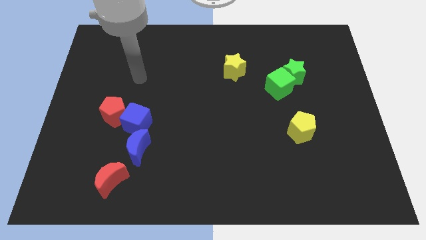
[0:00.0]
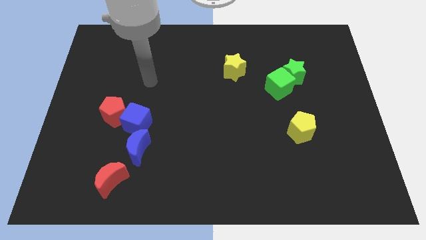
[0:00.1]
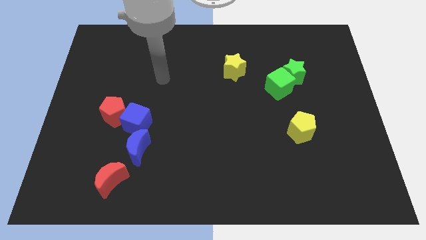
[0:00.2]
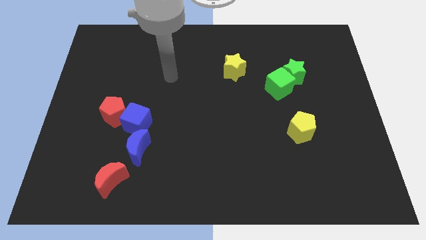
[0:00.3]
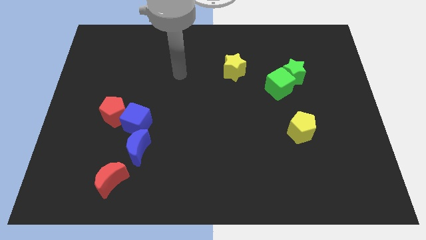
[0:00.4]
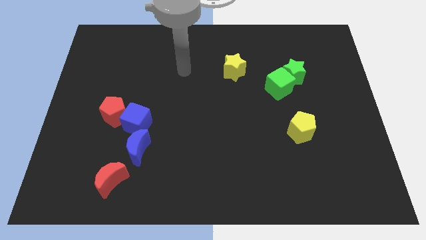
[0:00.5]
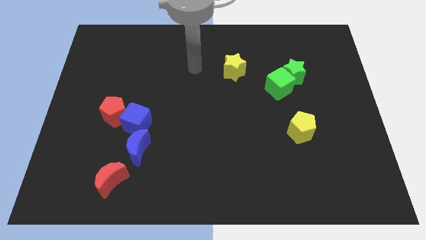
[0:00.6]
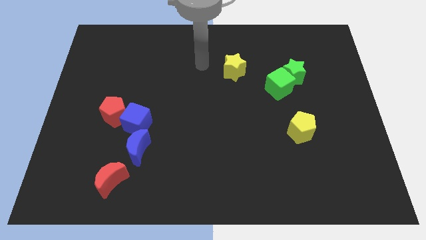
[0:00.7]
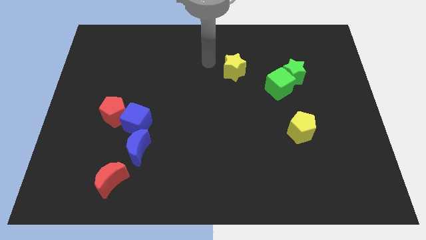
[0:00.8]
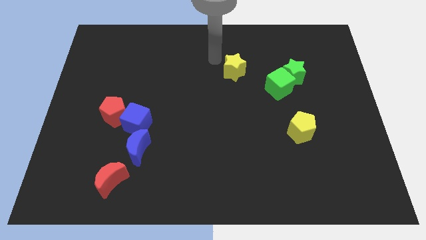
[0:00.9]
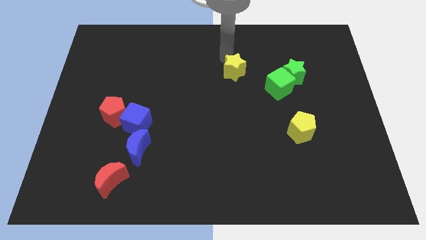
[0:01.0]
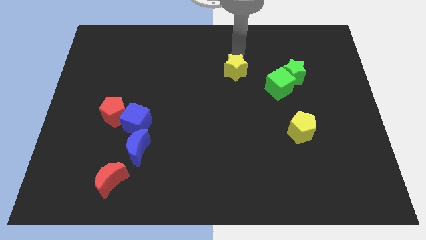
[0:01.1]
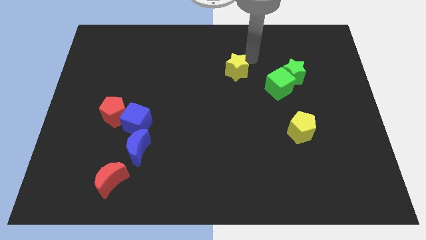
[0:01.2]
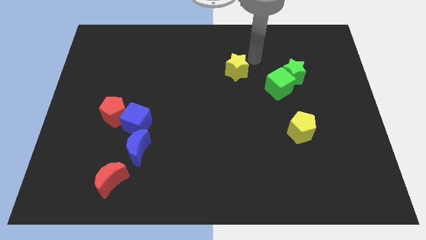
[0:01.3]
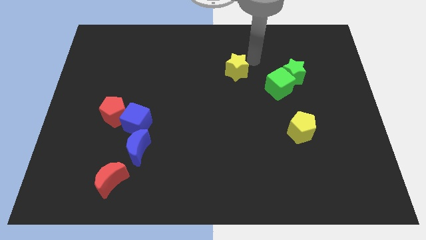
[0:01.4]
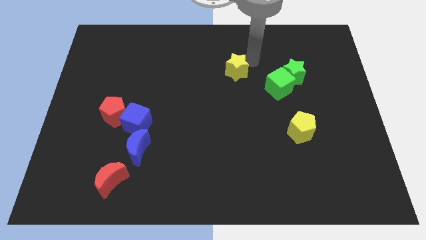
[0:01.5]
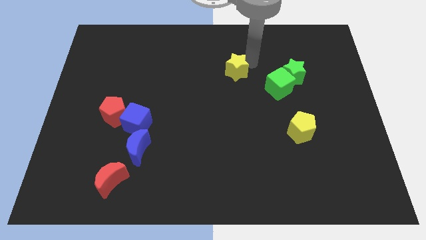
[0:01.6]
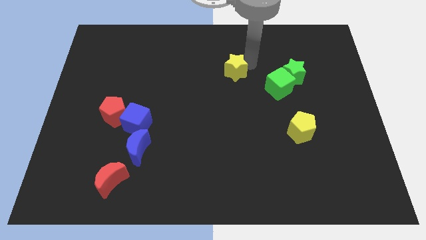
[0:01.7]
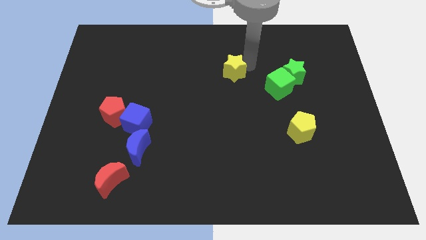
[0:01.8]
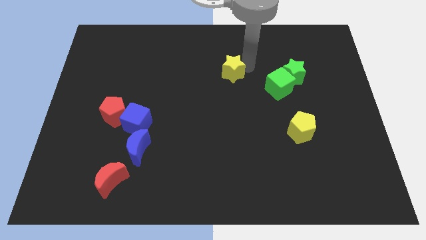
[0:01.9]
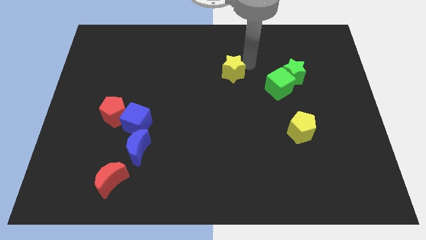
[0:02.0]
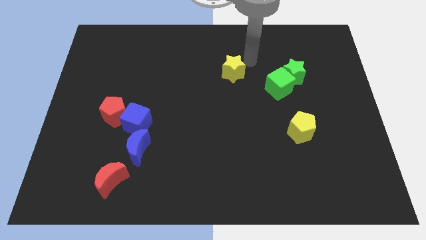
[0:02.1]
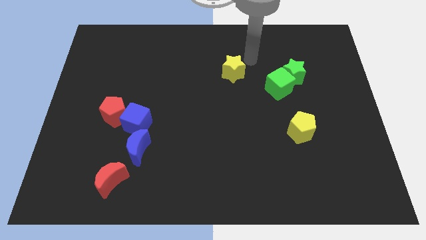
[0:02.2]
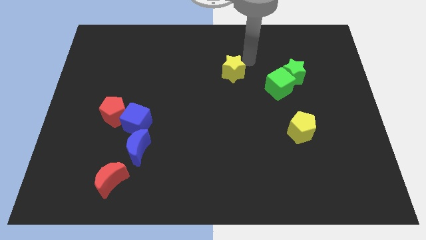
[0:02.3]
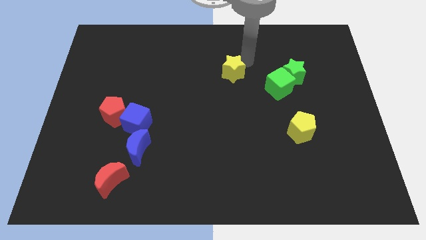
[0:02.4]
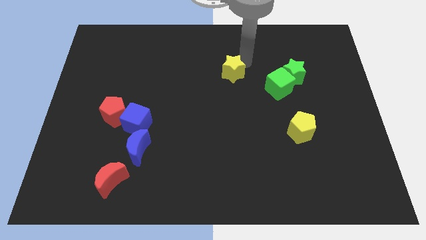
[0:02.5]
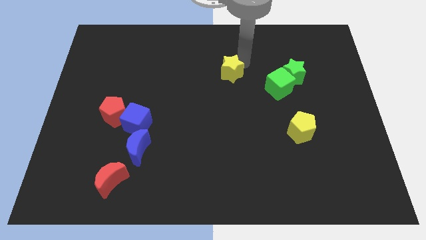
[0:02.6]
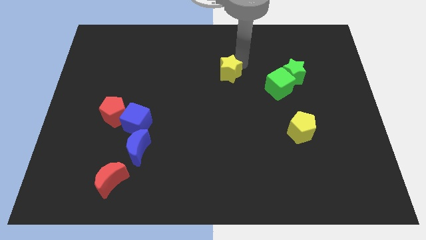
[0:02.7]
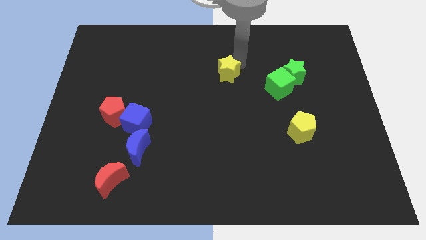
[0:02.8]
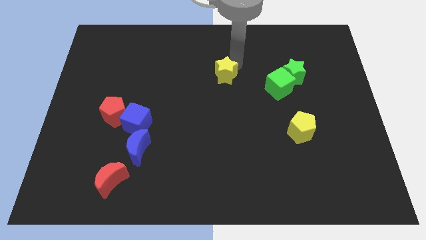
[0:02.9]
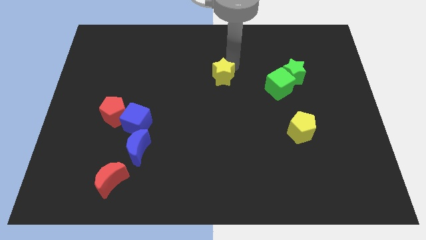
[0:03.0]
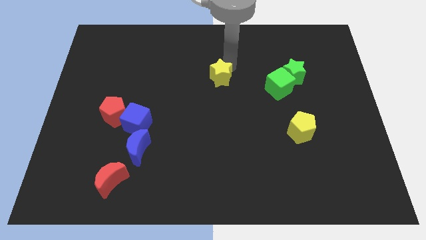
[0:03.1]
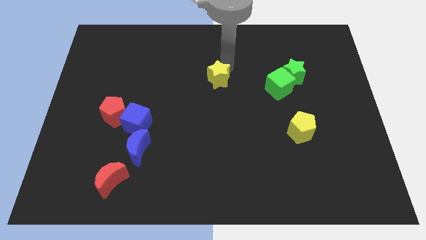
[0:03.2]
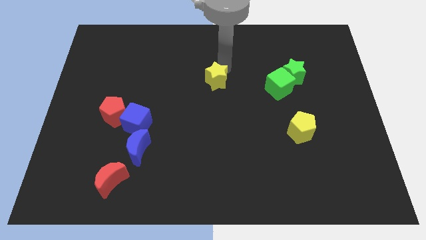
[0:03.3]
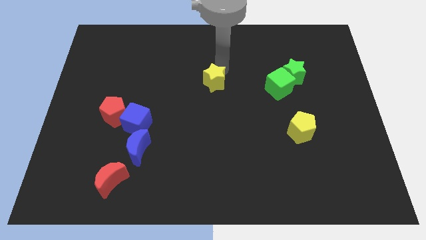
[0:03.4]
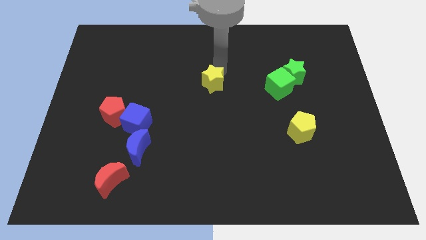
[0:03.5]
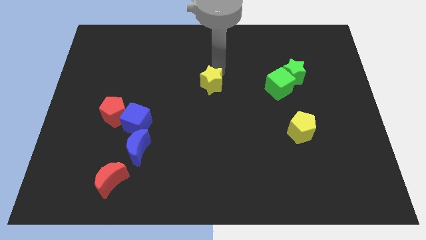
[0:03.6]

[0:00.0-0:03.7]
slide the yellow star down and to the left slightly

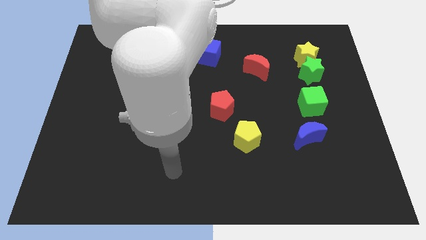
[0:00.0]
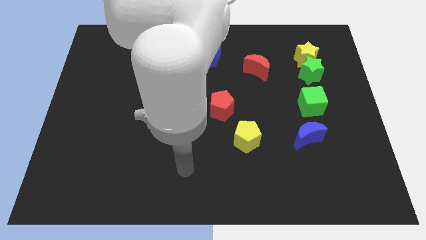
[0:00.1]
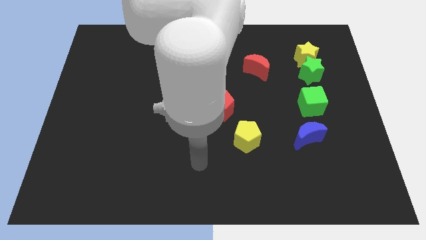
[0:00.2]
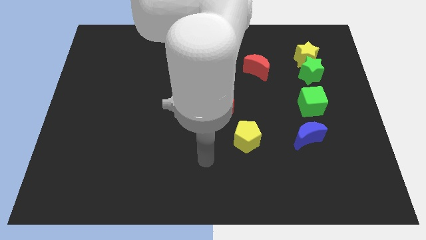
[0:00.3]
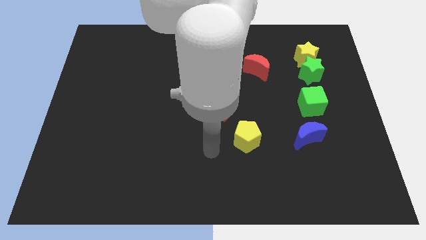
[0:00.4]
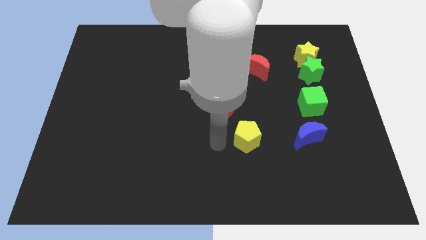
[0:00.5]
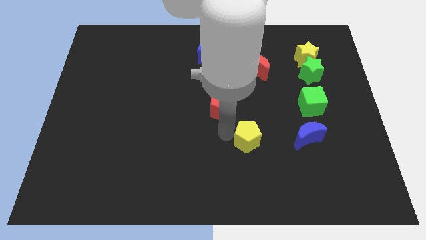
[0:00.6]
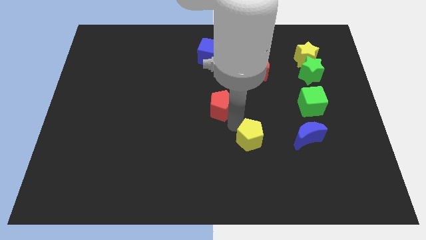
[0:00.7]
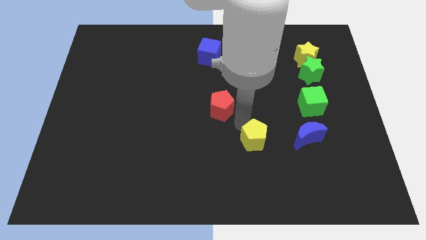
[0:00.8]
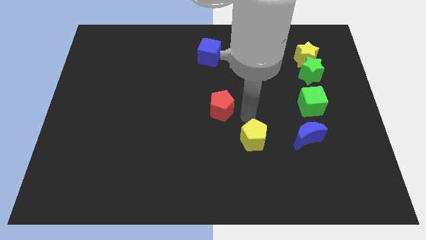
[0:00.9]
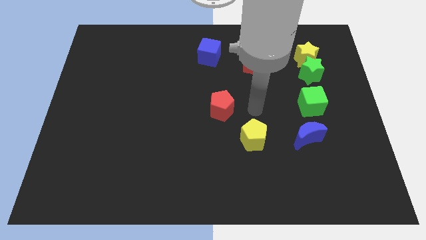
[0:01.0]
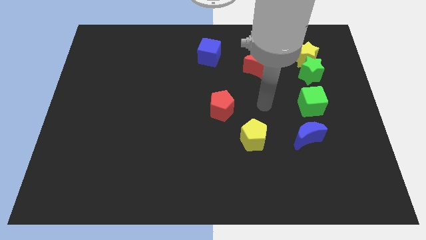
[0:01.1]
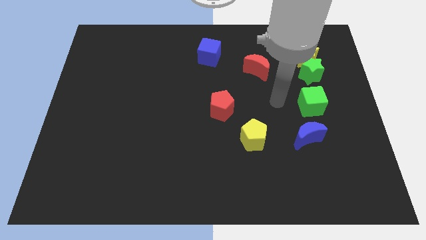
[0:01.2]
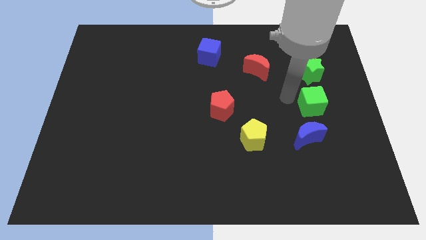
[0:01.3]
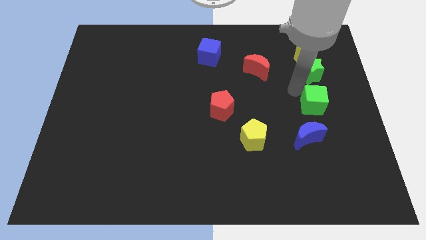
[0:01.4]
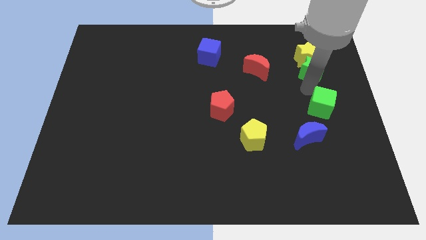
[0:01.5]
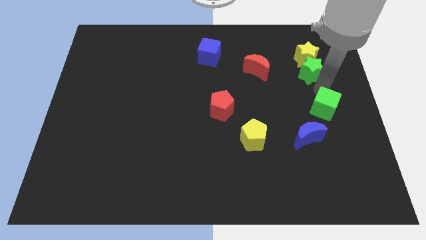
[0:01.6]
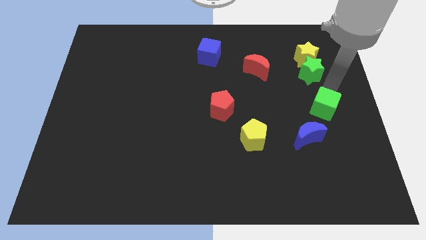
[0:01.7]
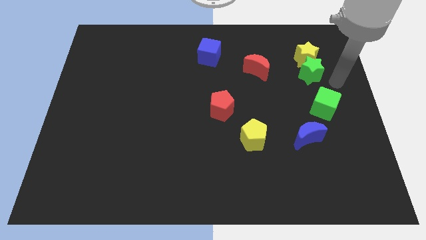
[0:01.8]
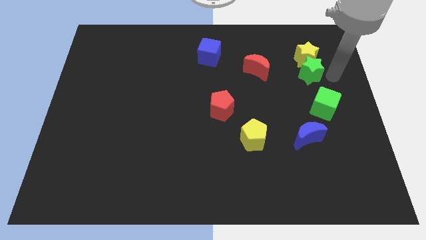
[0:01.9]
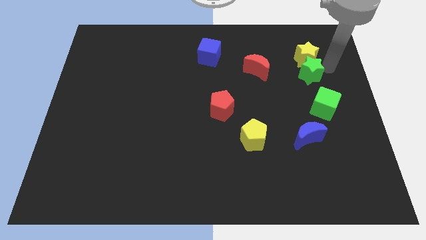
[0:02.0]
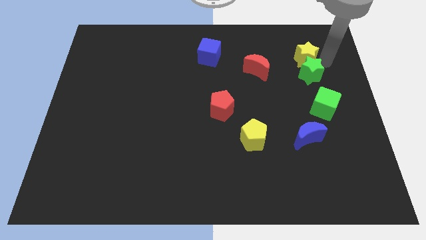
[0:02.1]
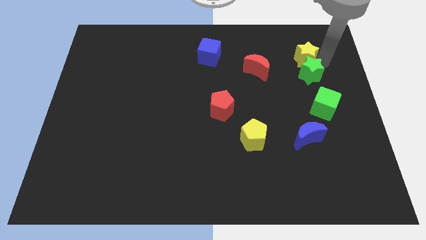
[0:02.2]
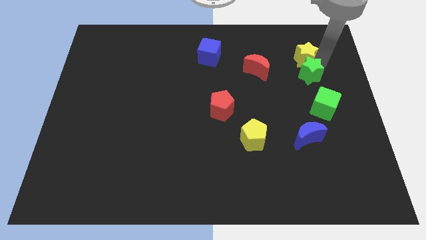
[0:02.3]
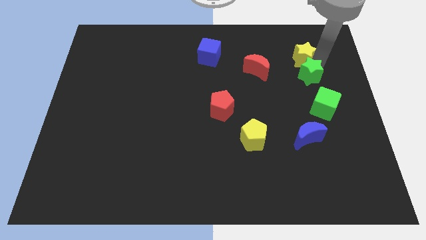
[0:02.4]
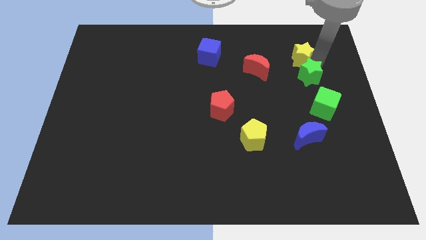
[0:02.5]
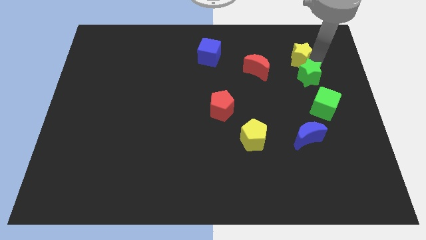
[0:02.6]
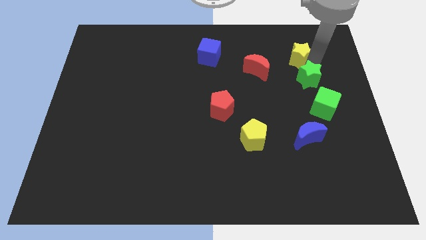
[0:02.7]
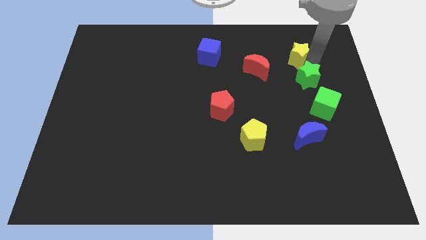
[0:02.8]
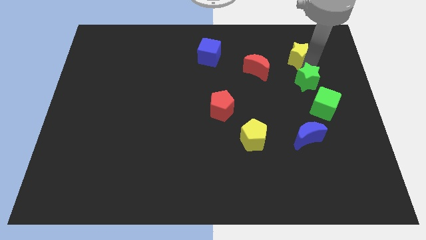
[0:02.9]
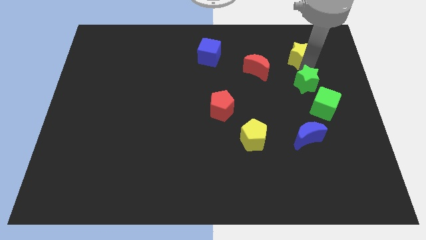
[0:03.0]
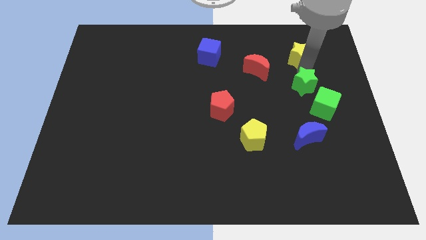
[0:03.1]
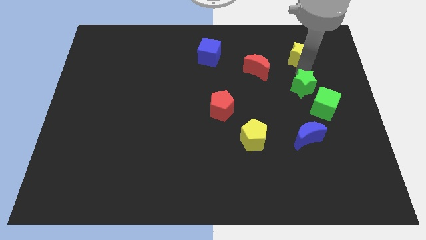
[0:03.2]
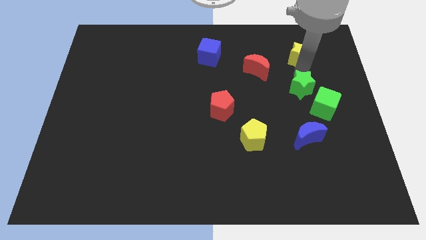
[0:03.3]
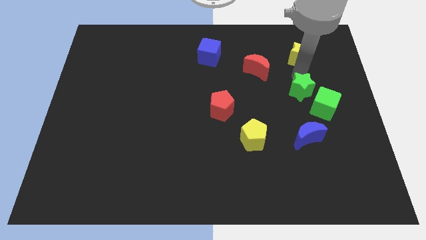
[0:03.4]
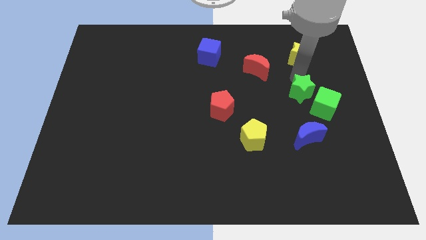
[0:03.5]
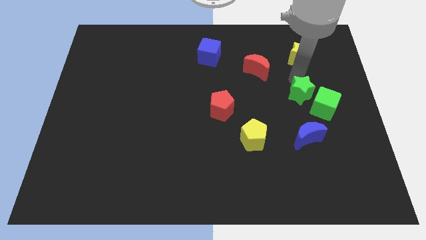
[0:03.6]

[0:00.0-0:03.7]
slide the green star slightly diagonally downwards and to the left

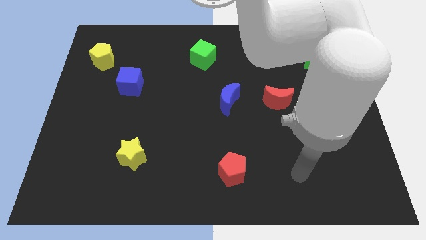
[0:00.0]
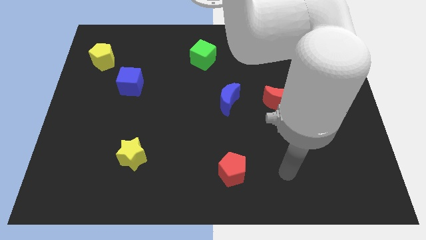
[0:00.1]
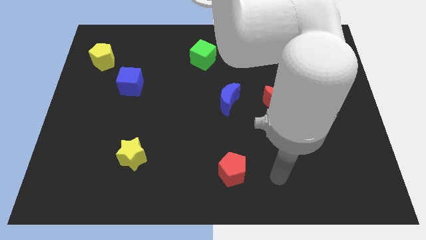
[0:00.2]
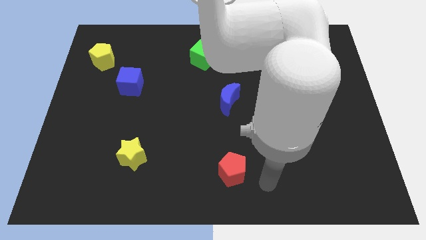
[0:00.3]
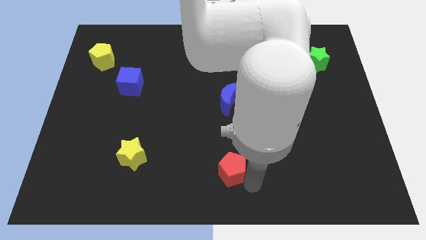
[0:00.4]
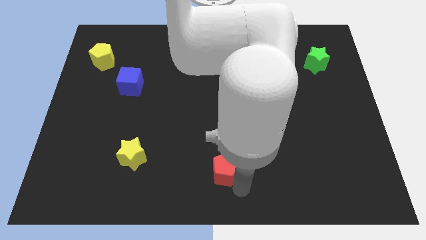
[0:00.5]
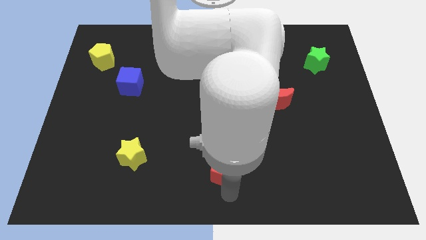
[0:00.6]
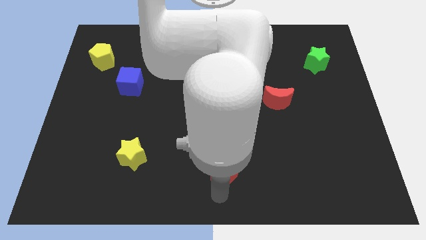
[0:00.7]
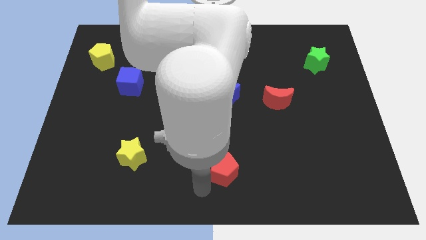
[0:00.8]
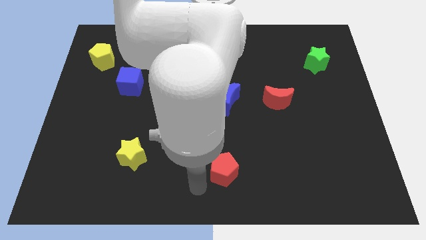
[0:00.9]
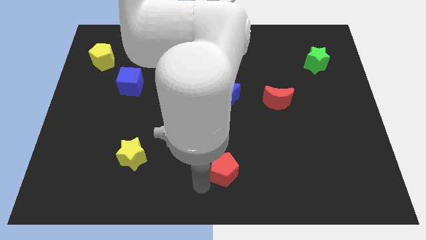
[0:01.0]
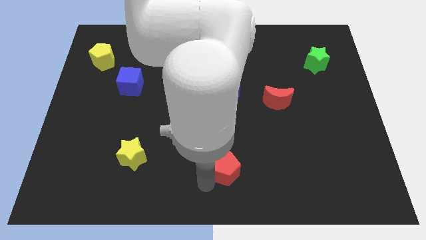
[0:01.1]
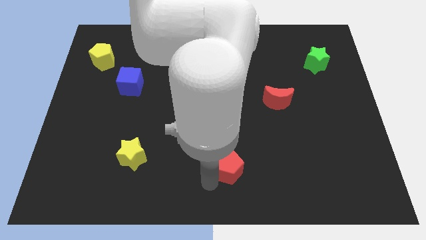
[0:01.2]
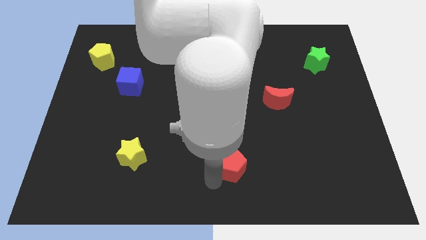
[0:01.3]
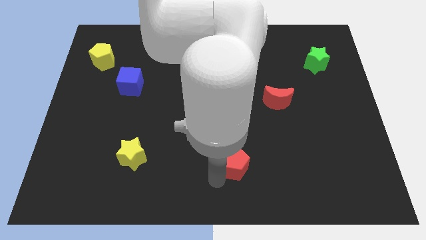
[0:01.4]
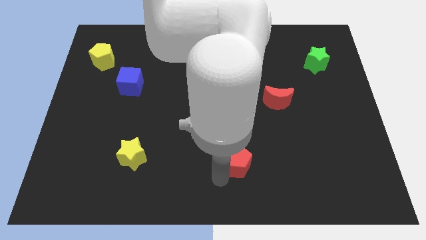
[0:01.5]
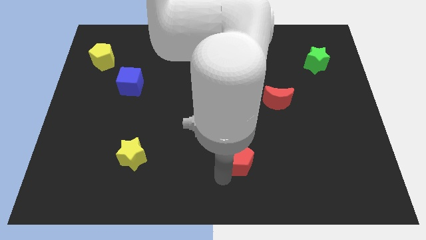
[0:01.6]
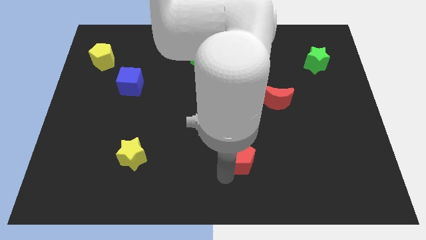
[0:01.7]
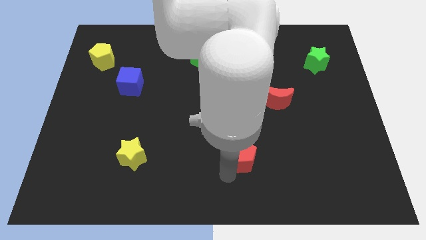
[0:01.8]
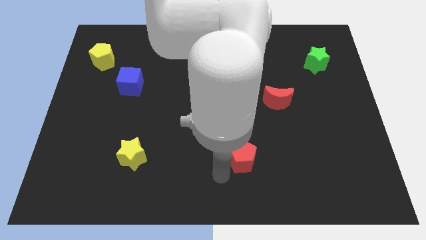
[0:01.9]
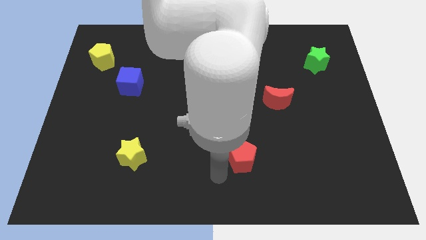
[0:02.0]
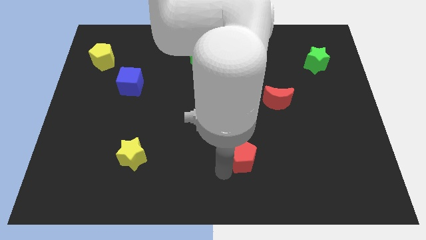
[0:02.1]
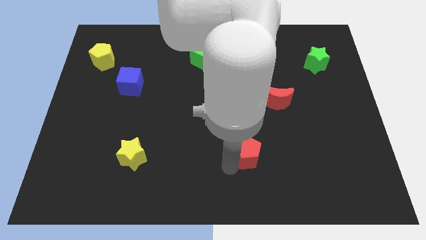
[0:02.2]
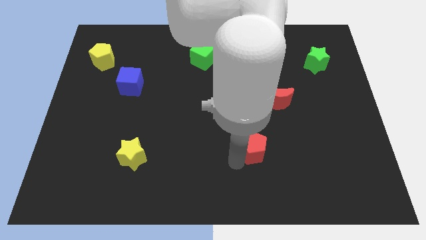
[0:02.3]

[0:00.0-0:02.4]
slightly move the red pentagon upwards and then right
